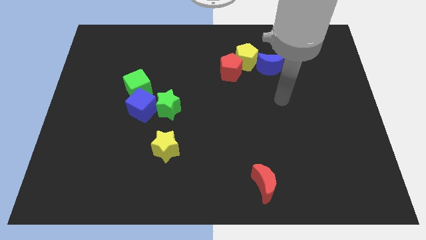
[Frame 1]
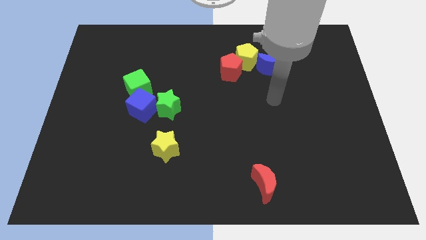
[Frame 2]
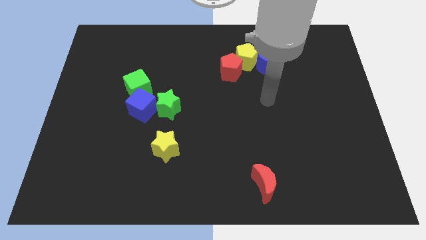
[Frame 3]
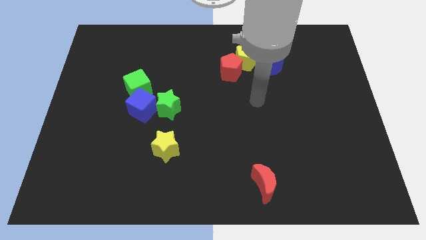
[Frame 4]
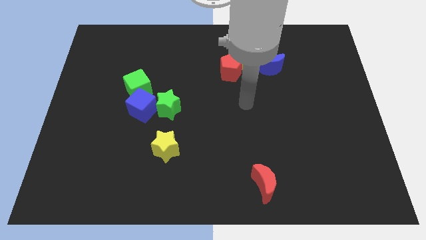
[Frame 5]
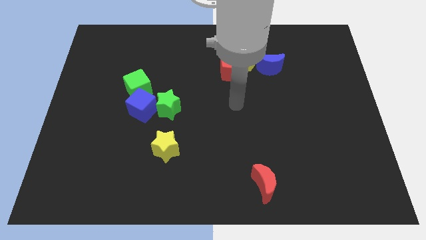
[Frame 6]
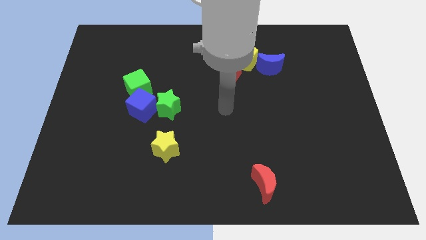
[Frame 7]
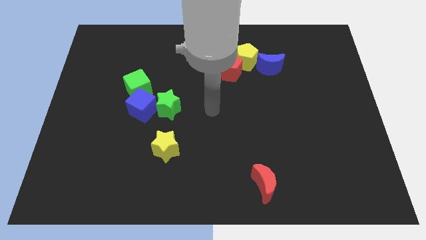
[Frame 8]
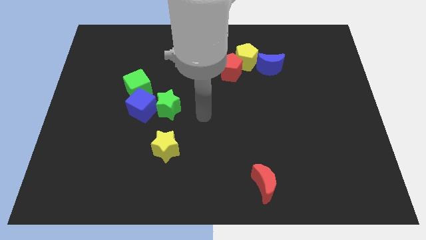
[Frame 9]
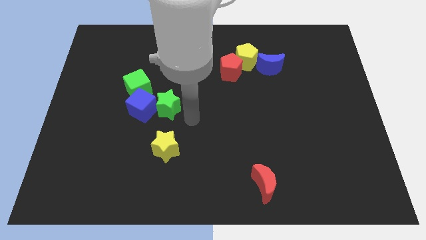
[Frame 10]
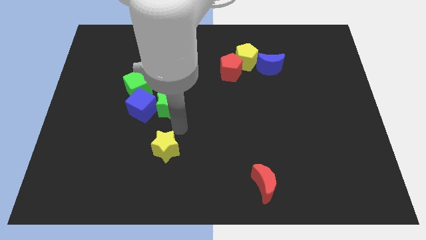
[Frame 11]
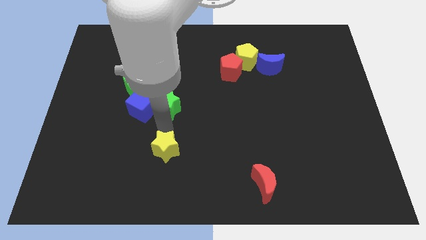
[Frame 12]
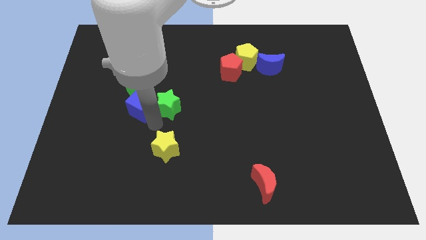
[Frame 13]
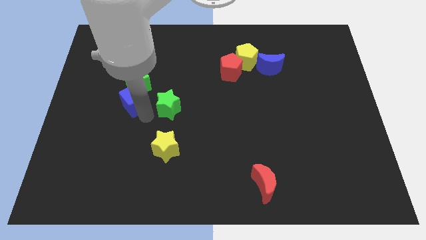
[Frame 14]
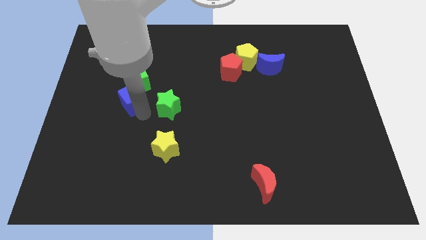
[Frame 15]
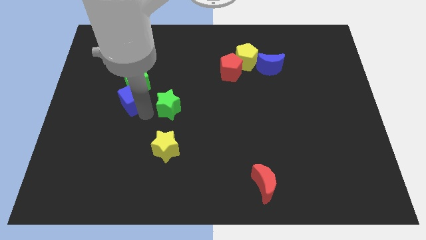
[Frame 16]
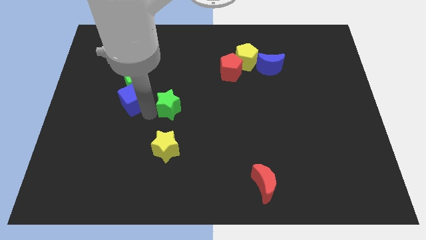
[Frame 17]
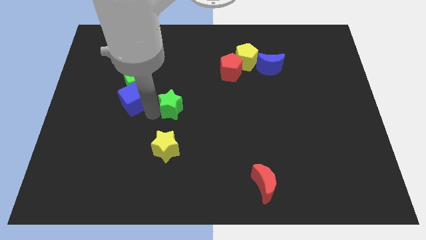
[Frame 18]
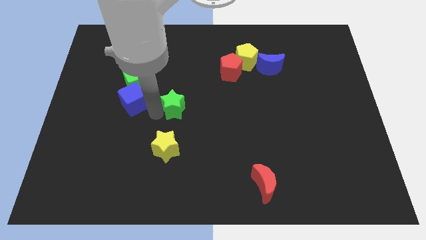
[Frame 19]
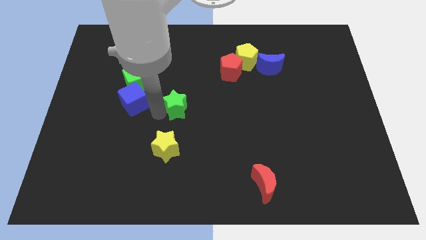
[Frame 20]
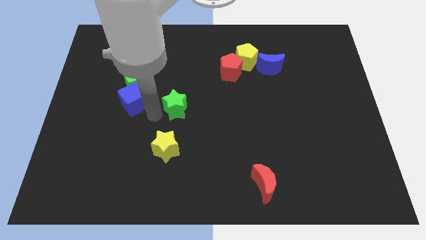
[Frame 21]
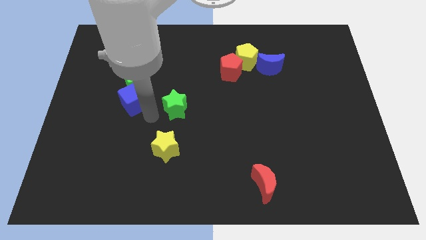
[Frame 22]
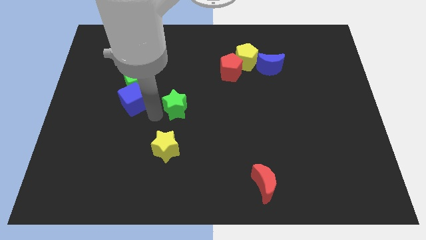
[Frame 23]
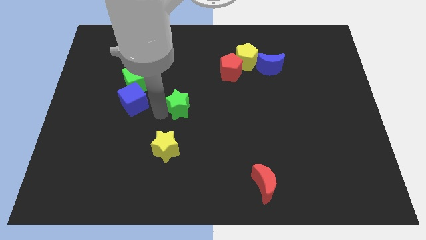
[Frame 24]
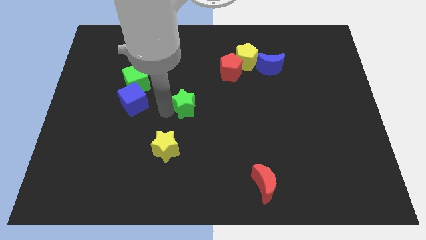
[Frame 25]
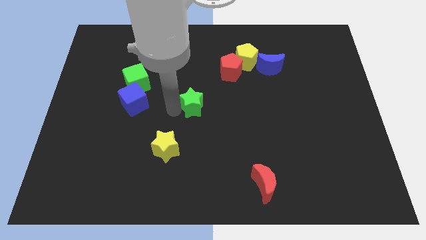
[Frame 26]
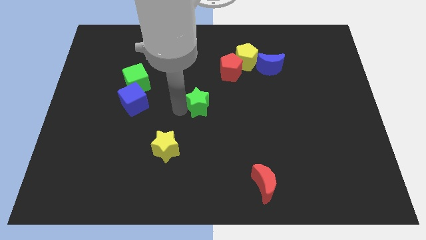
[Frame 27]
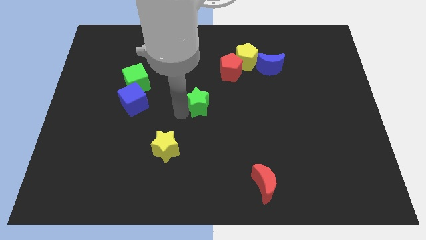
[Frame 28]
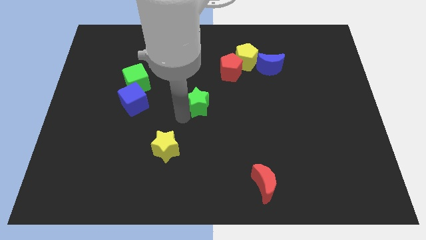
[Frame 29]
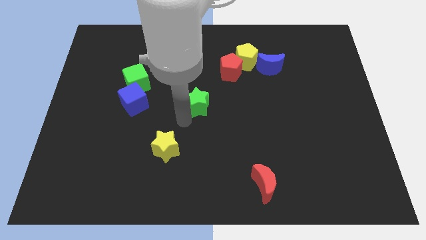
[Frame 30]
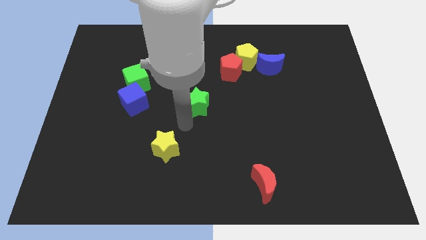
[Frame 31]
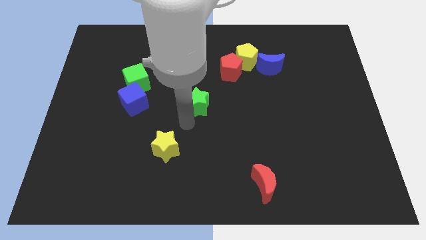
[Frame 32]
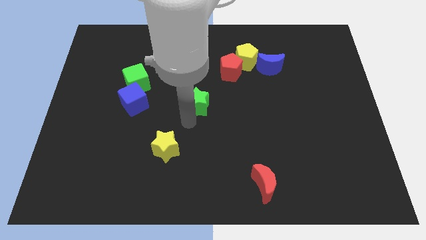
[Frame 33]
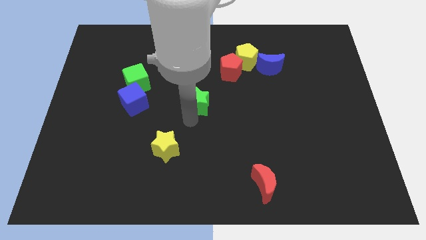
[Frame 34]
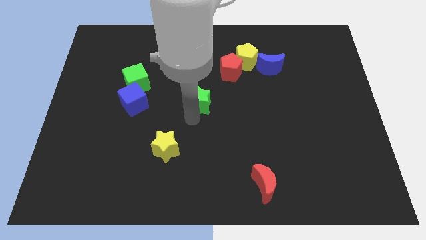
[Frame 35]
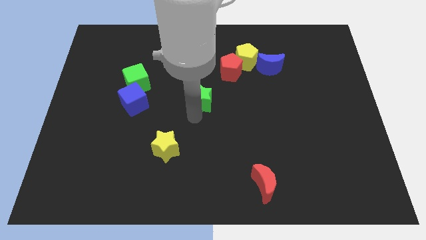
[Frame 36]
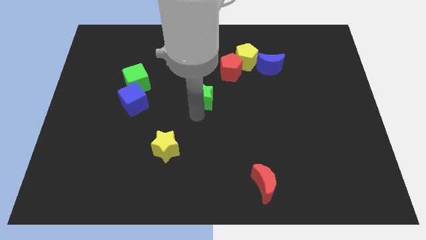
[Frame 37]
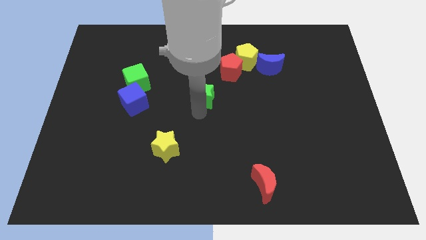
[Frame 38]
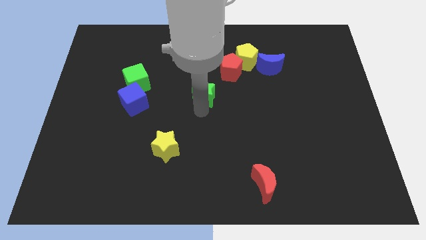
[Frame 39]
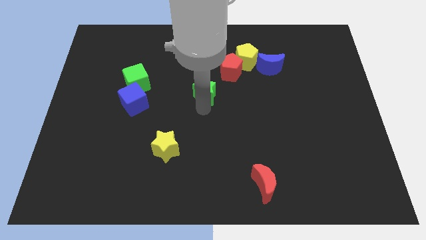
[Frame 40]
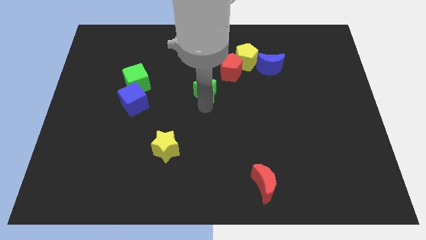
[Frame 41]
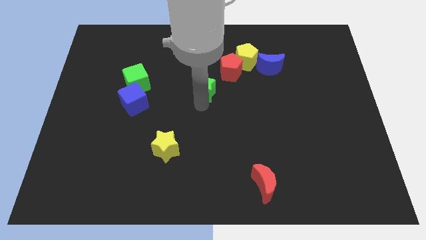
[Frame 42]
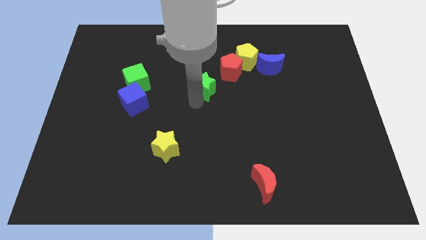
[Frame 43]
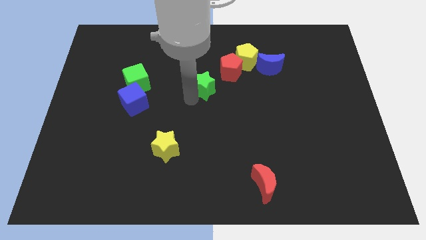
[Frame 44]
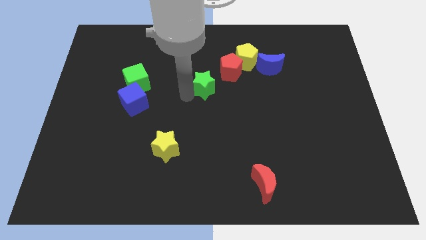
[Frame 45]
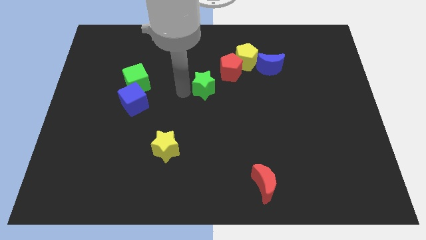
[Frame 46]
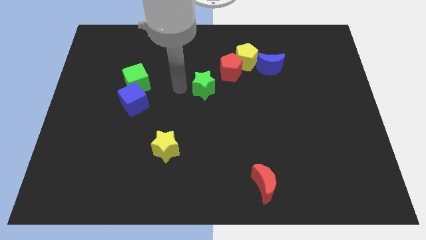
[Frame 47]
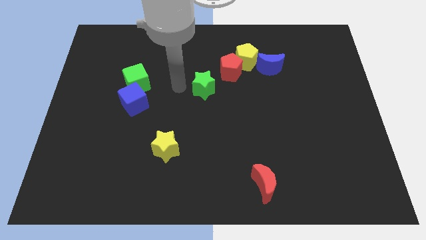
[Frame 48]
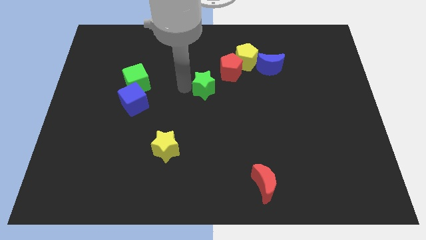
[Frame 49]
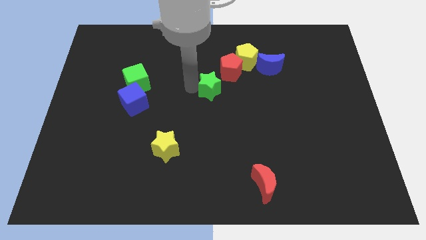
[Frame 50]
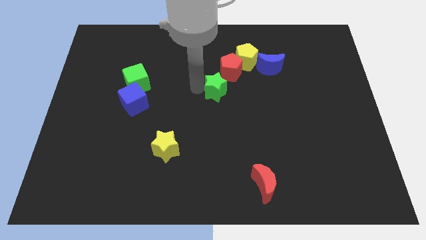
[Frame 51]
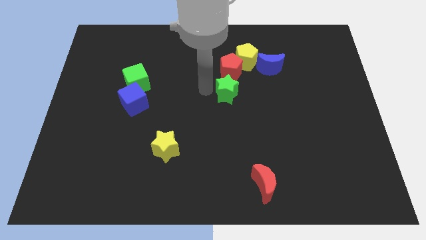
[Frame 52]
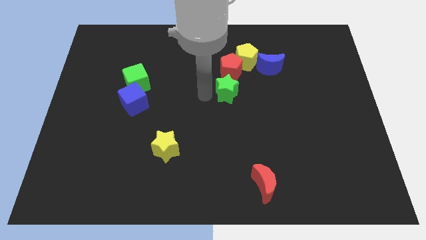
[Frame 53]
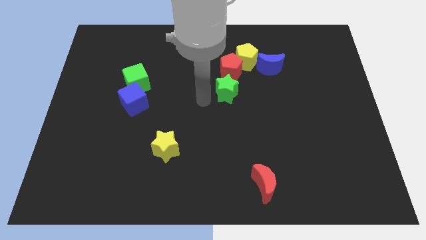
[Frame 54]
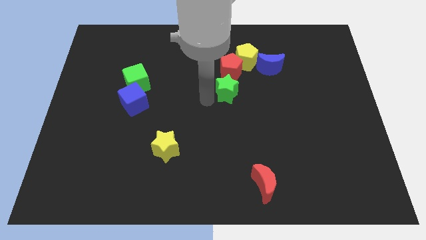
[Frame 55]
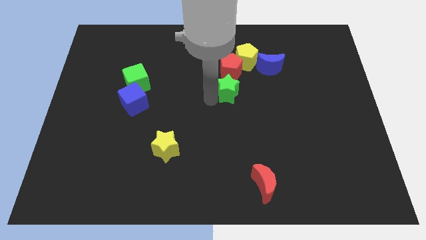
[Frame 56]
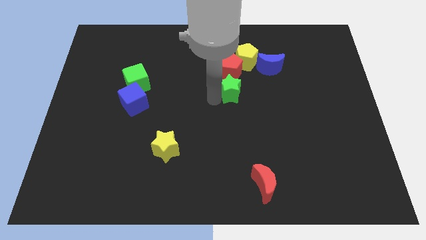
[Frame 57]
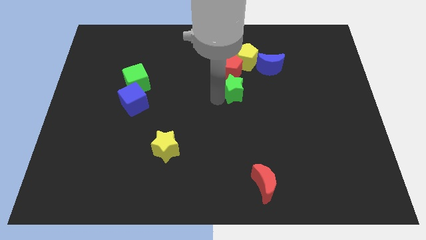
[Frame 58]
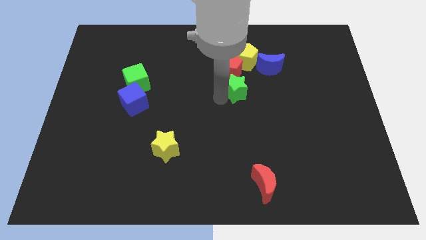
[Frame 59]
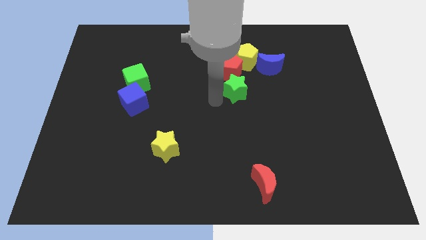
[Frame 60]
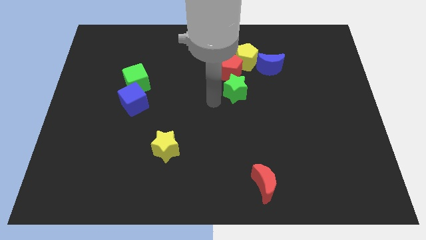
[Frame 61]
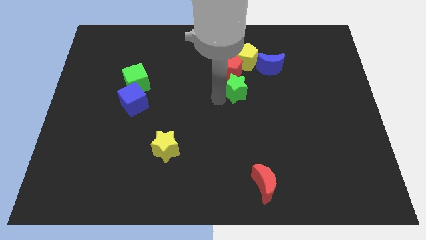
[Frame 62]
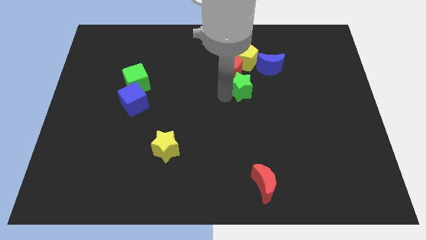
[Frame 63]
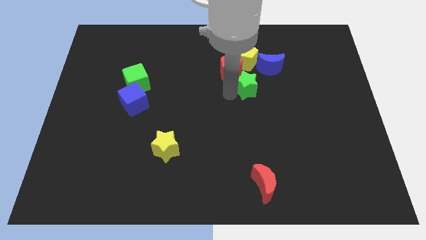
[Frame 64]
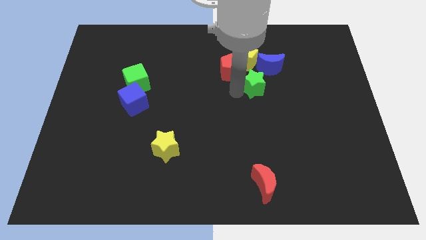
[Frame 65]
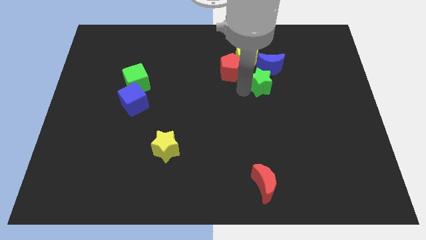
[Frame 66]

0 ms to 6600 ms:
slide the green star diagonally down and to the right of the yellow pentagon
